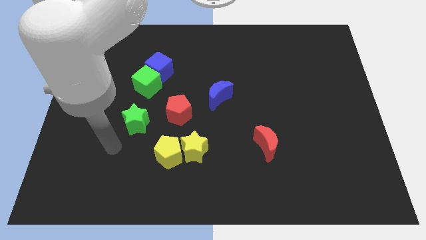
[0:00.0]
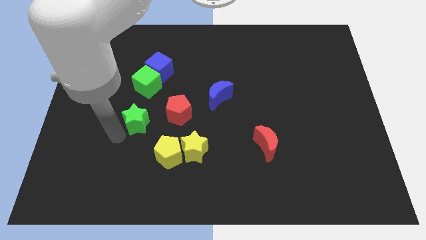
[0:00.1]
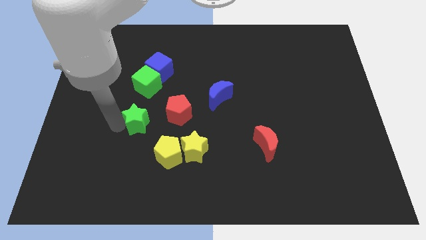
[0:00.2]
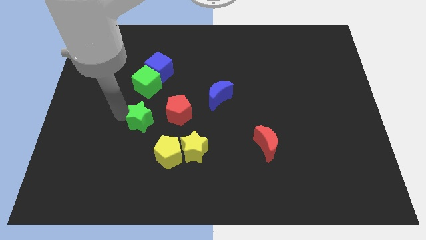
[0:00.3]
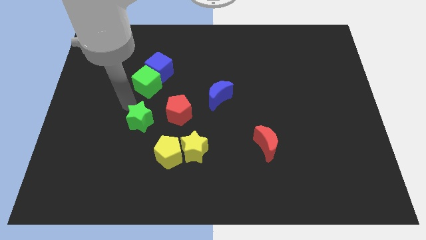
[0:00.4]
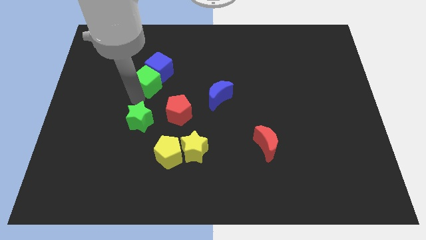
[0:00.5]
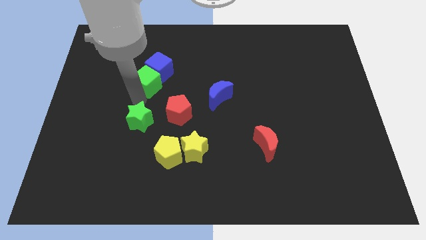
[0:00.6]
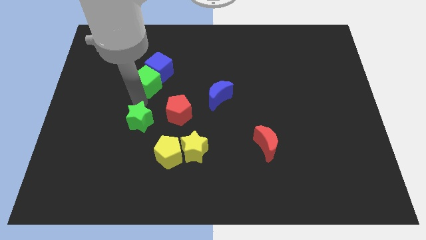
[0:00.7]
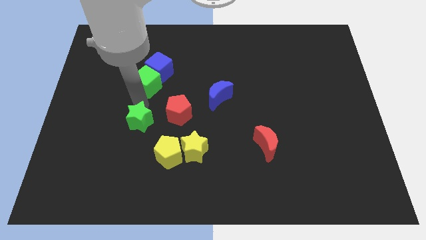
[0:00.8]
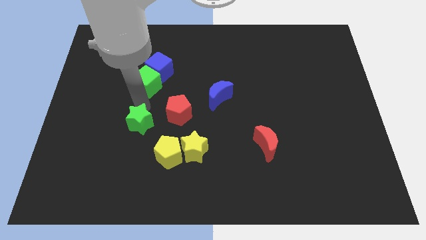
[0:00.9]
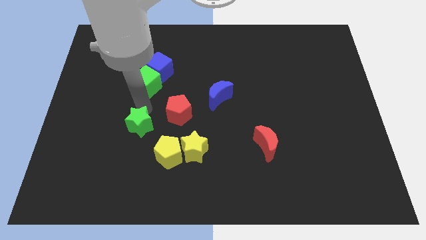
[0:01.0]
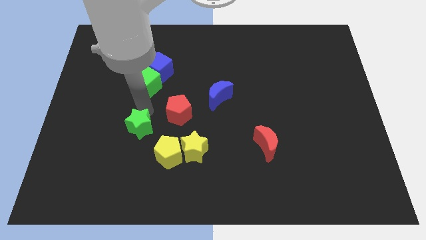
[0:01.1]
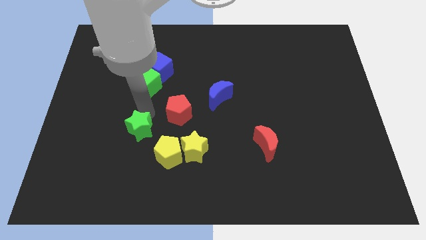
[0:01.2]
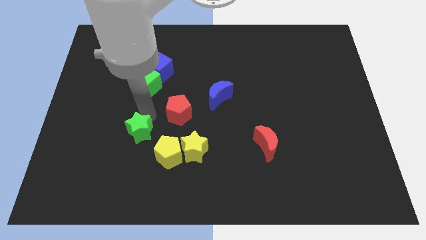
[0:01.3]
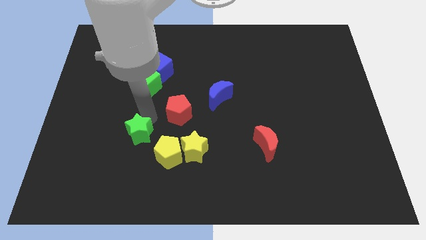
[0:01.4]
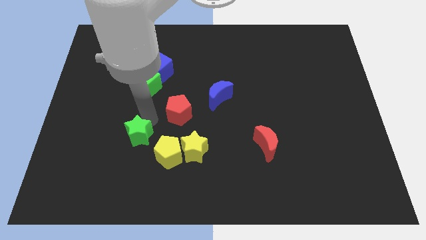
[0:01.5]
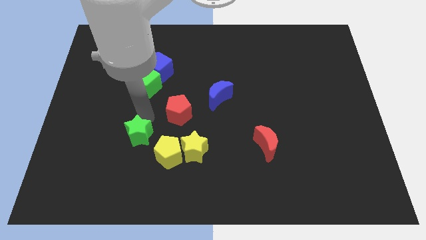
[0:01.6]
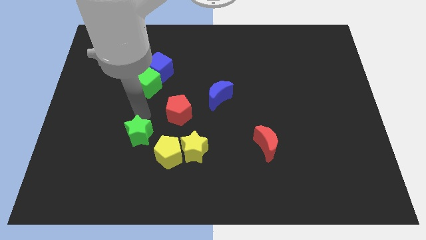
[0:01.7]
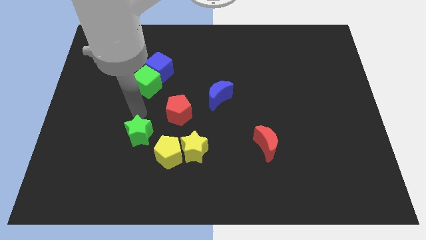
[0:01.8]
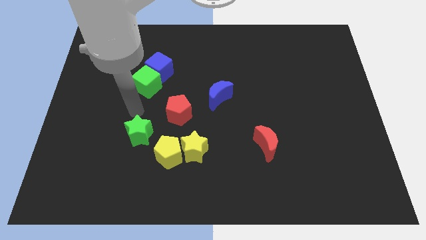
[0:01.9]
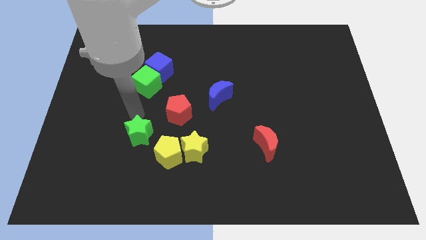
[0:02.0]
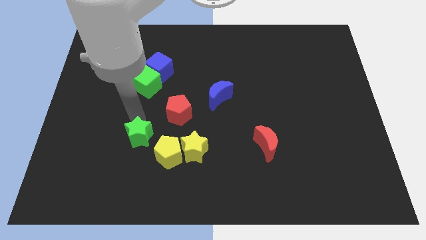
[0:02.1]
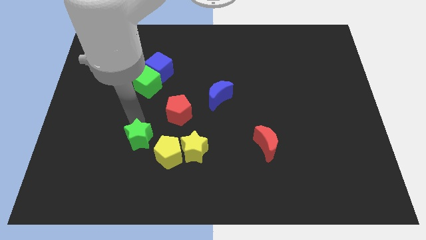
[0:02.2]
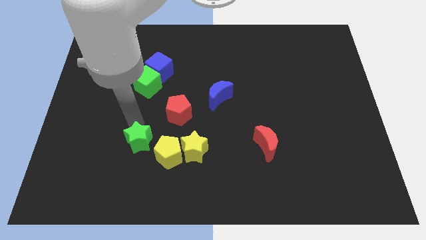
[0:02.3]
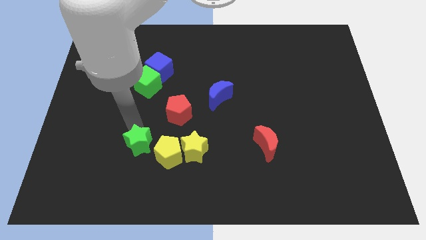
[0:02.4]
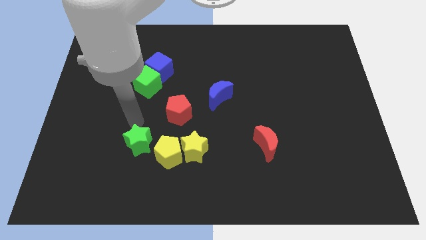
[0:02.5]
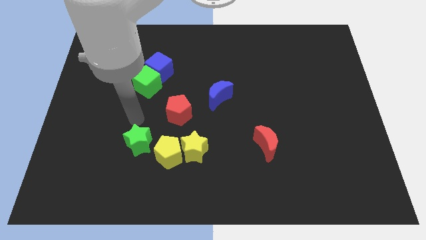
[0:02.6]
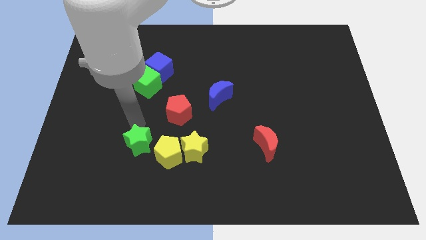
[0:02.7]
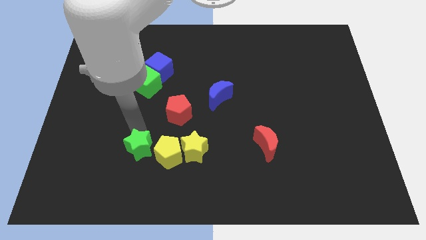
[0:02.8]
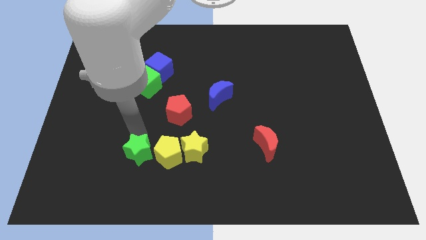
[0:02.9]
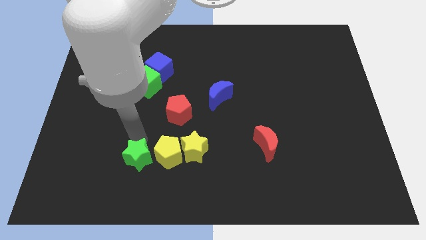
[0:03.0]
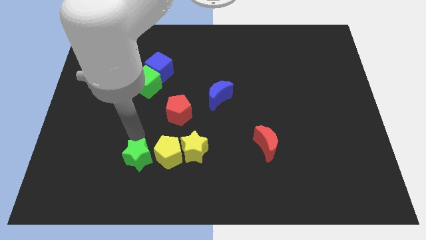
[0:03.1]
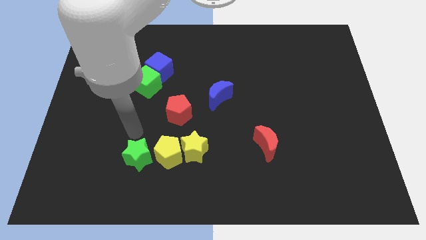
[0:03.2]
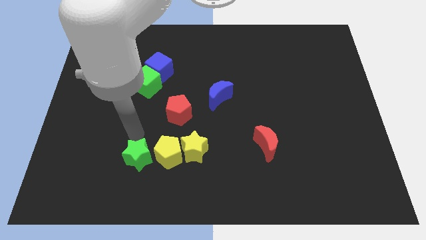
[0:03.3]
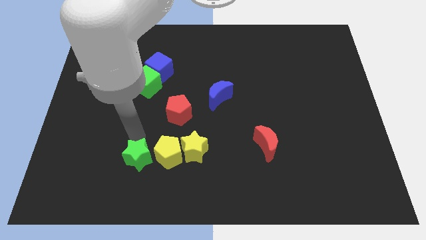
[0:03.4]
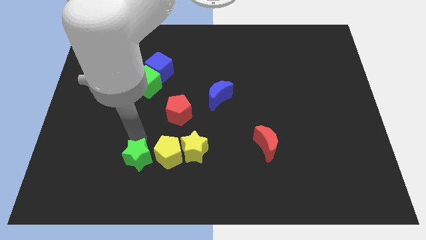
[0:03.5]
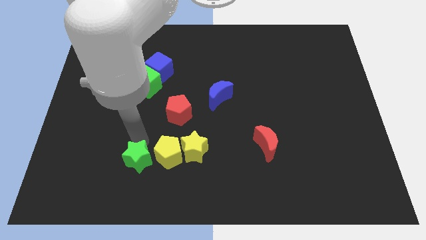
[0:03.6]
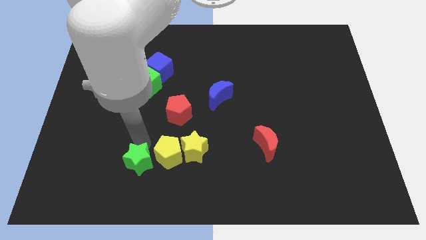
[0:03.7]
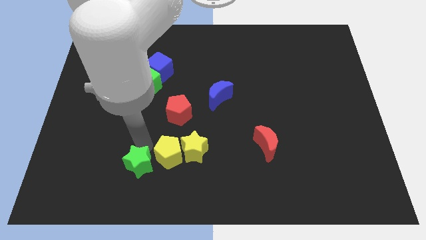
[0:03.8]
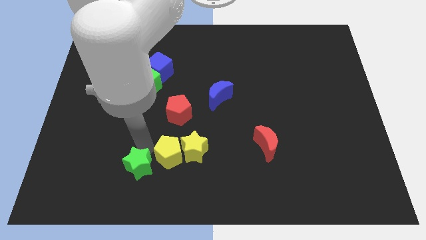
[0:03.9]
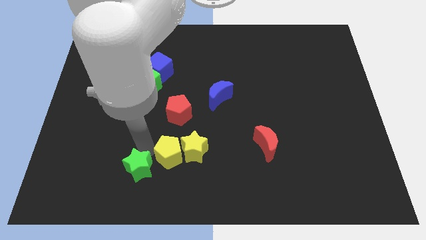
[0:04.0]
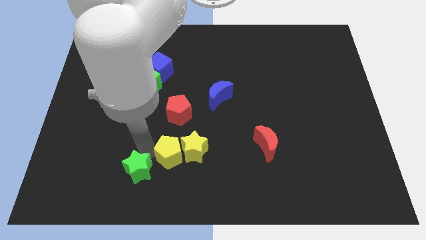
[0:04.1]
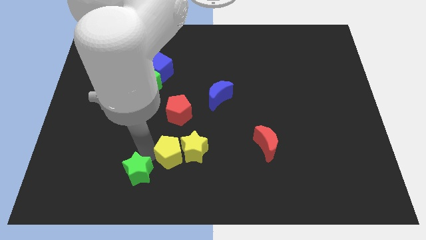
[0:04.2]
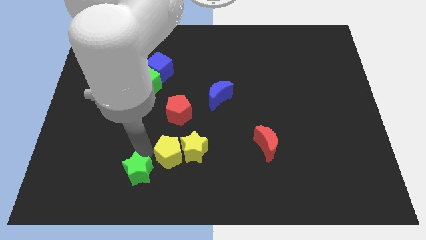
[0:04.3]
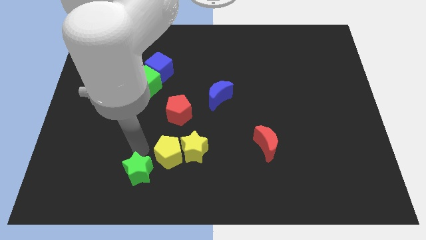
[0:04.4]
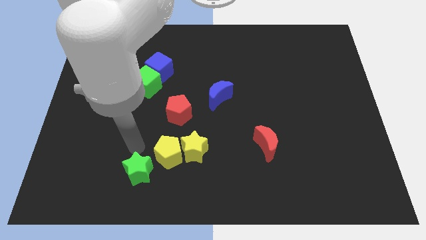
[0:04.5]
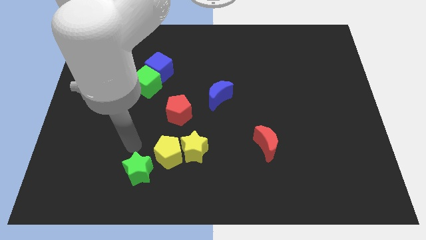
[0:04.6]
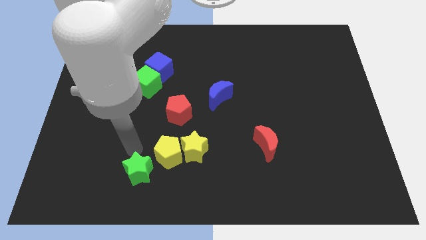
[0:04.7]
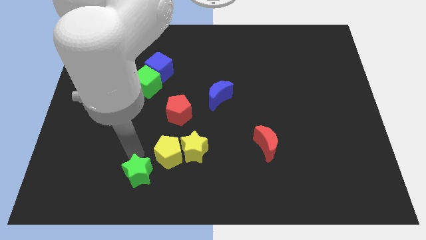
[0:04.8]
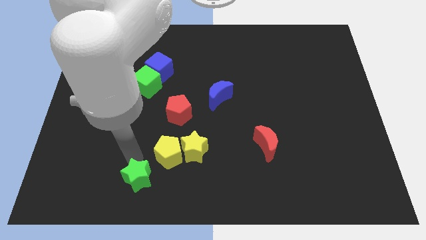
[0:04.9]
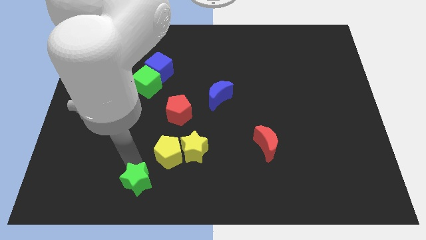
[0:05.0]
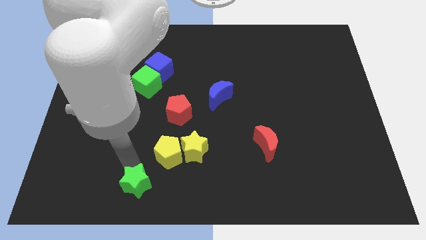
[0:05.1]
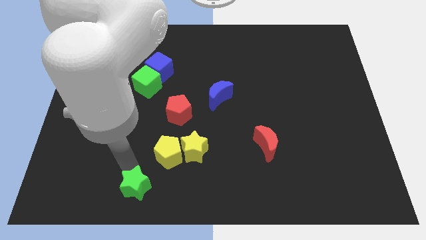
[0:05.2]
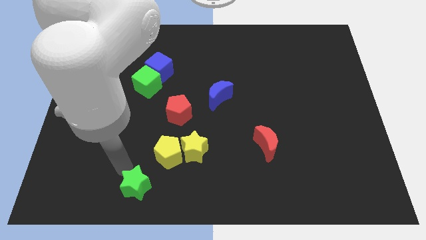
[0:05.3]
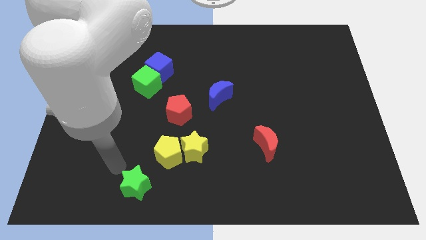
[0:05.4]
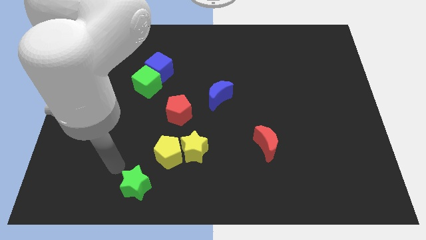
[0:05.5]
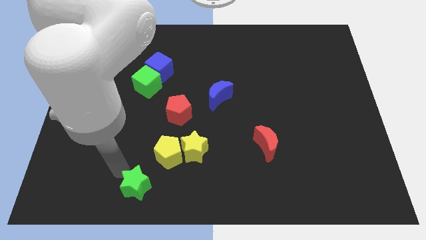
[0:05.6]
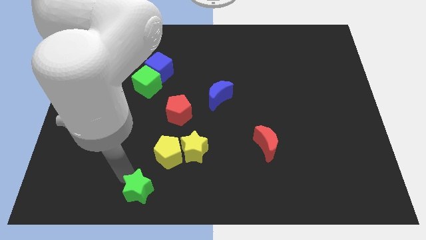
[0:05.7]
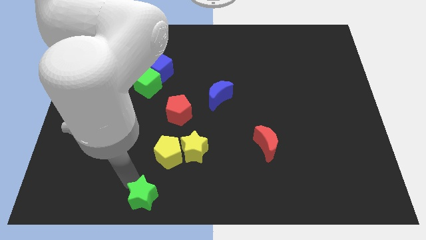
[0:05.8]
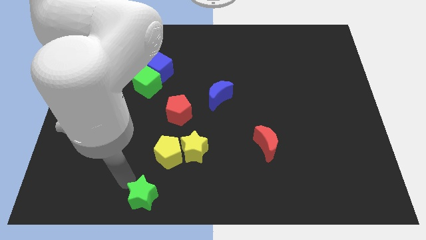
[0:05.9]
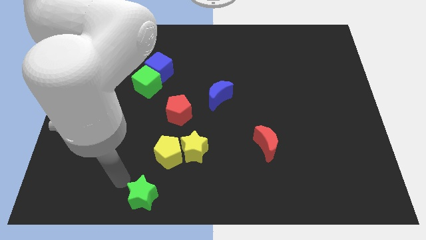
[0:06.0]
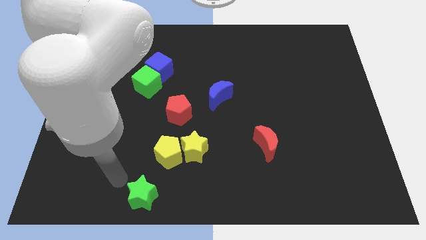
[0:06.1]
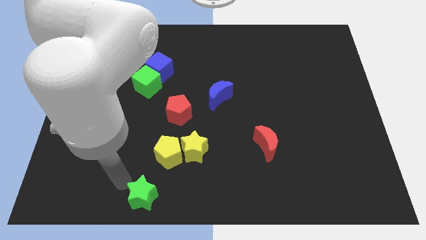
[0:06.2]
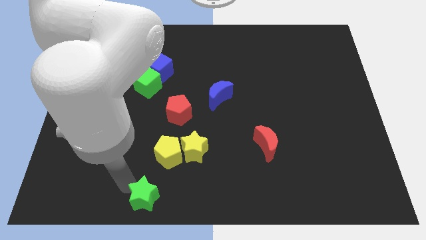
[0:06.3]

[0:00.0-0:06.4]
move the green star to the bottom side

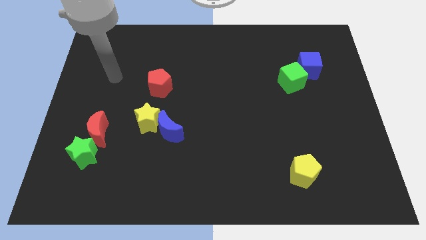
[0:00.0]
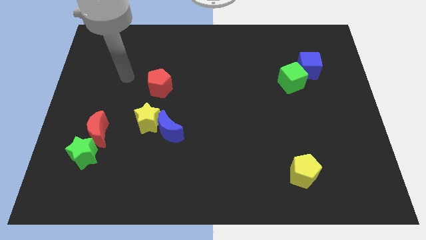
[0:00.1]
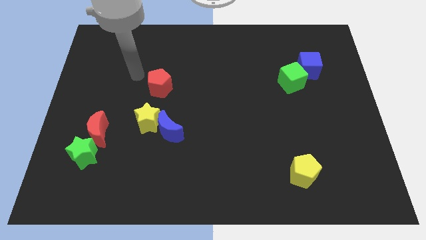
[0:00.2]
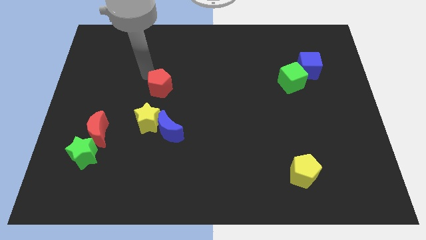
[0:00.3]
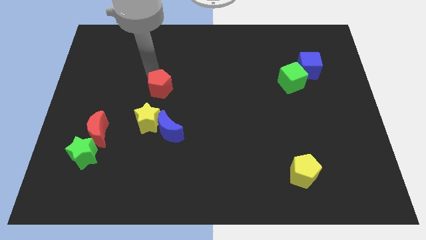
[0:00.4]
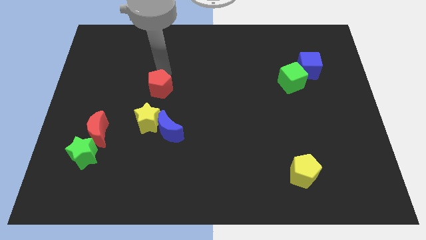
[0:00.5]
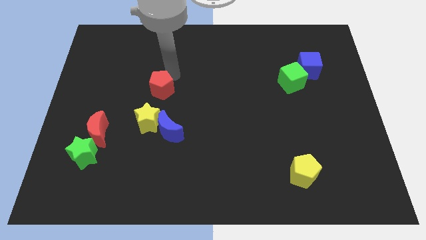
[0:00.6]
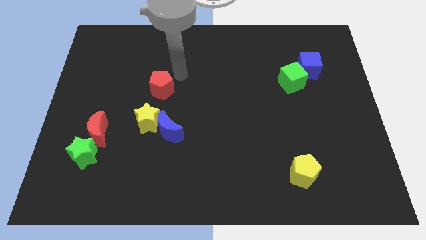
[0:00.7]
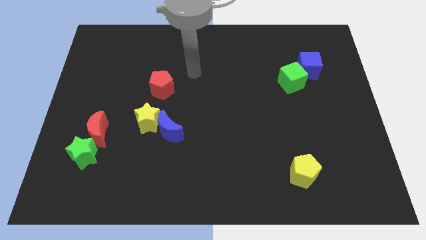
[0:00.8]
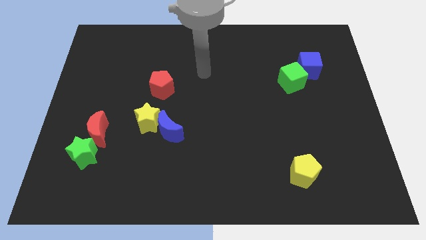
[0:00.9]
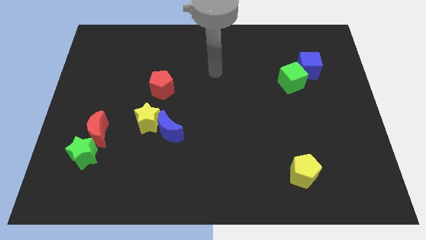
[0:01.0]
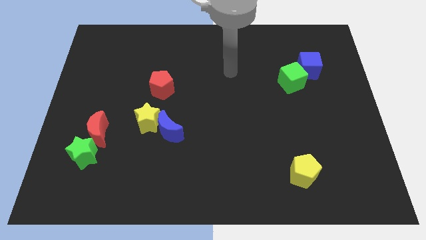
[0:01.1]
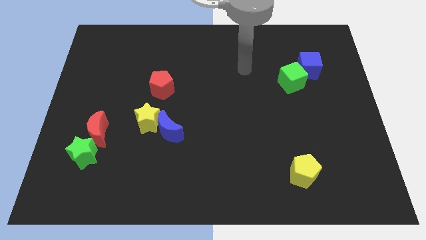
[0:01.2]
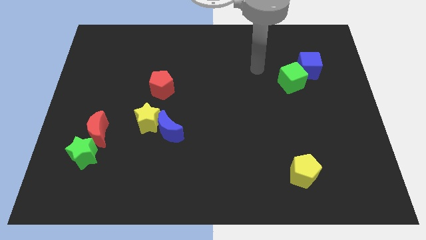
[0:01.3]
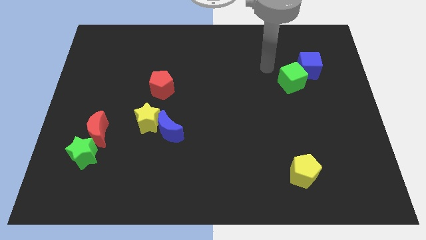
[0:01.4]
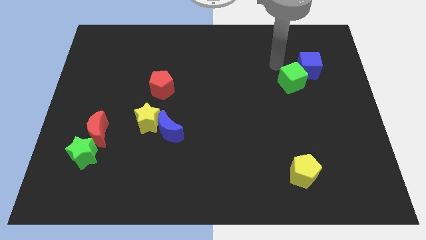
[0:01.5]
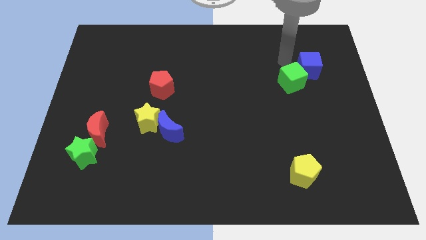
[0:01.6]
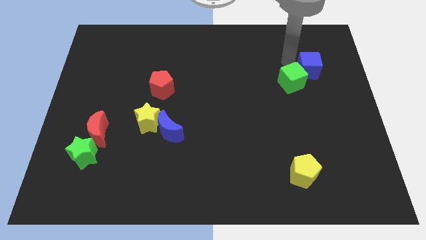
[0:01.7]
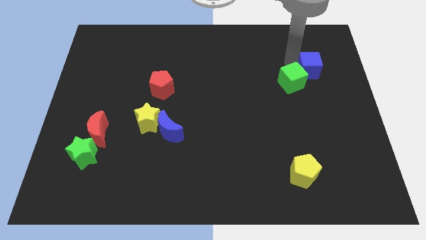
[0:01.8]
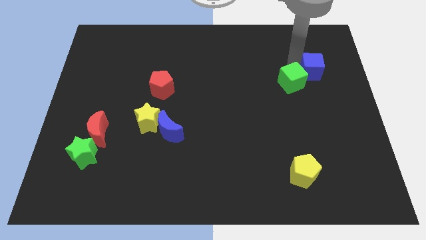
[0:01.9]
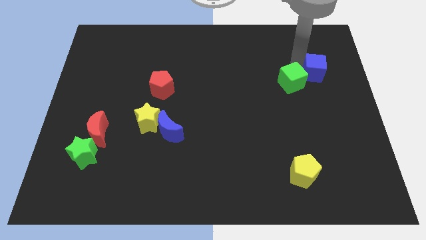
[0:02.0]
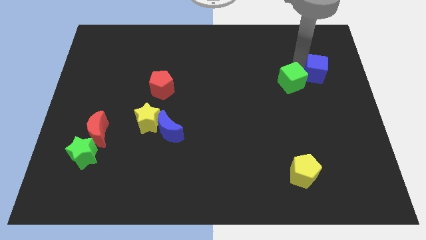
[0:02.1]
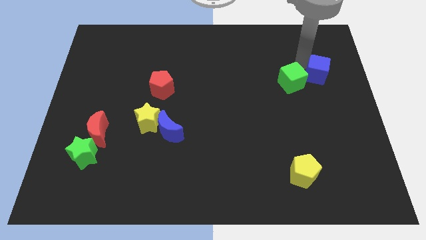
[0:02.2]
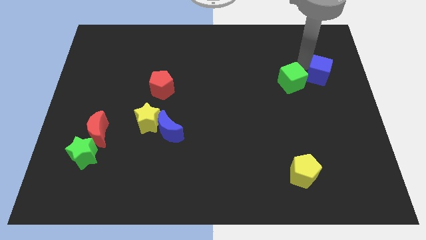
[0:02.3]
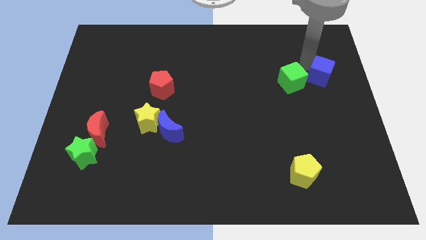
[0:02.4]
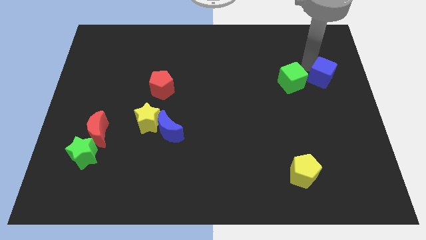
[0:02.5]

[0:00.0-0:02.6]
put the blue cube to the right side
